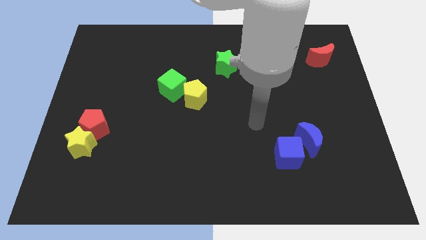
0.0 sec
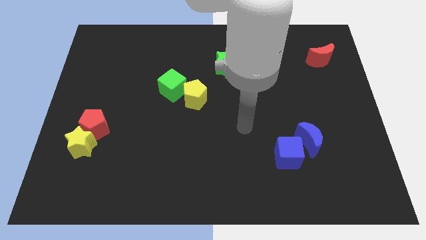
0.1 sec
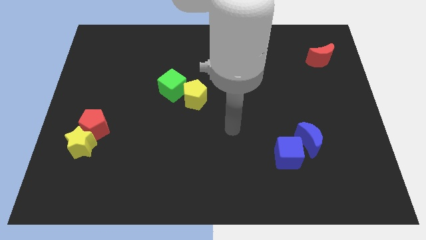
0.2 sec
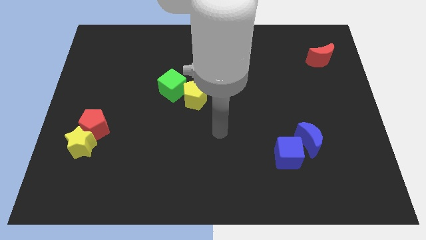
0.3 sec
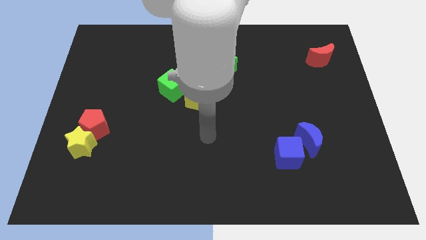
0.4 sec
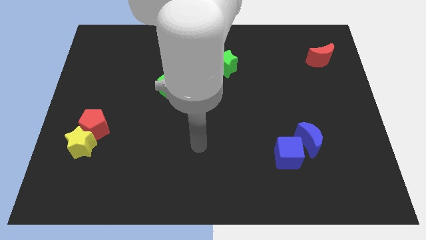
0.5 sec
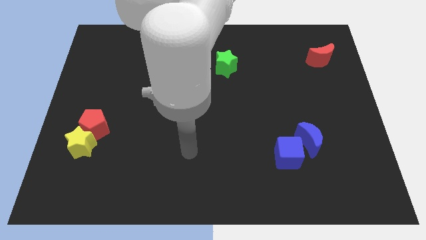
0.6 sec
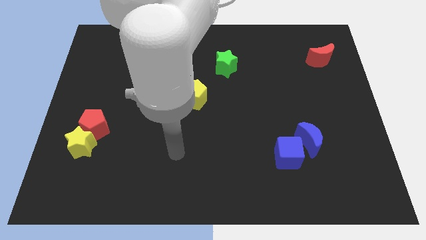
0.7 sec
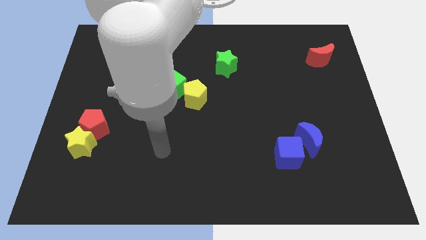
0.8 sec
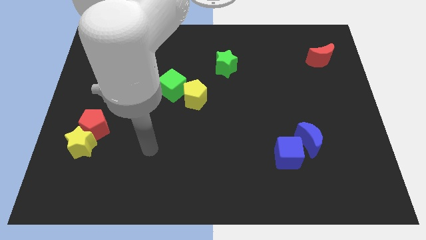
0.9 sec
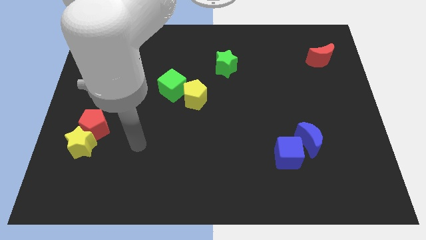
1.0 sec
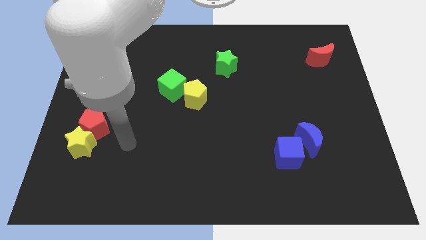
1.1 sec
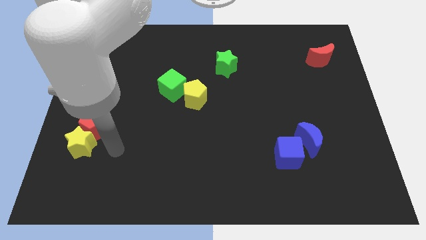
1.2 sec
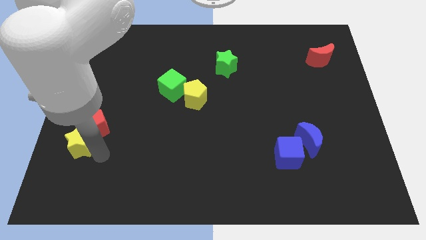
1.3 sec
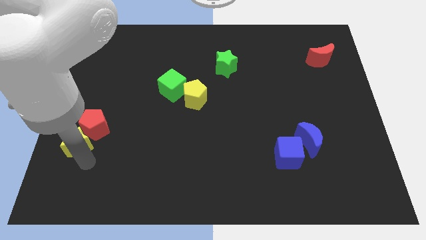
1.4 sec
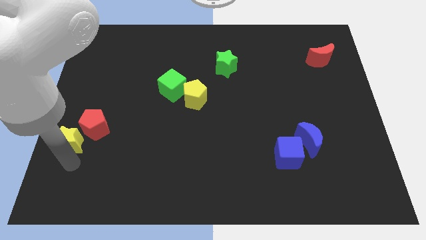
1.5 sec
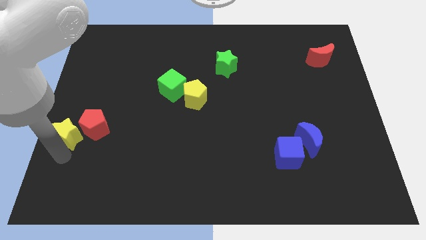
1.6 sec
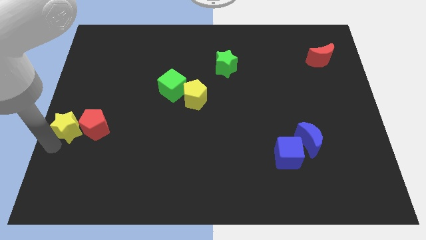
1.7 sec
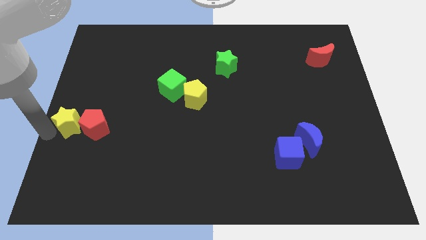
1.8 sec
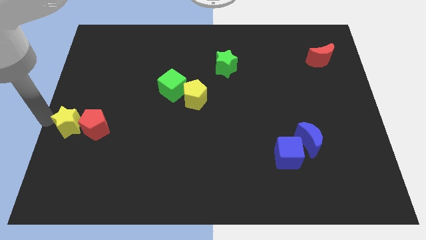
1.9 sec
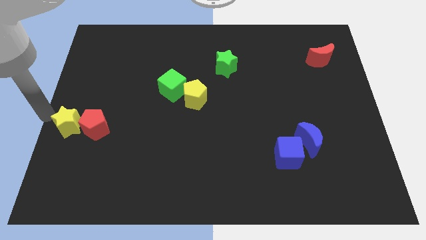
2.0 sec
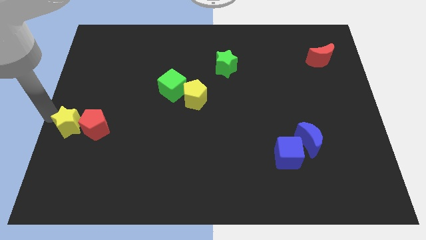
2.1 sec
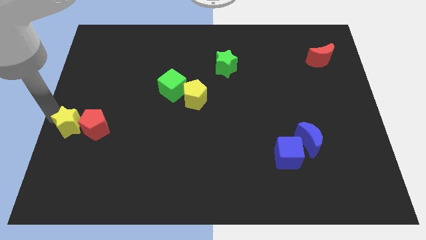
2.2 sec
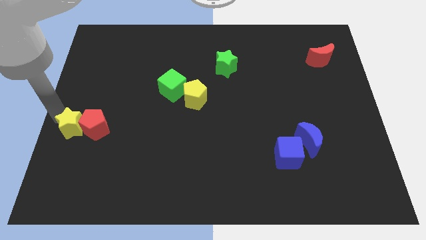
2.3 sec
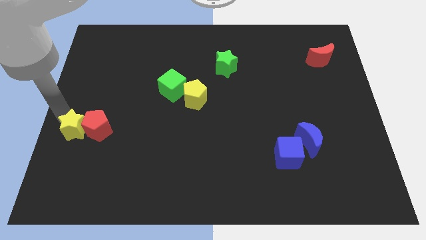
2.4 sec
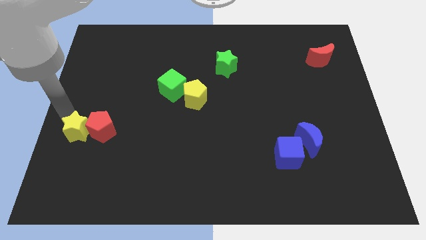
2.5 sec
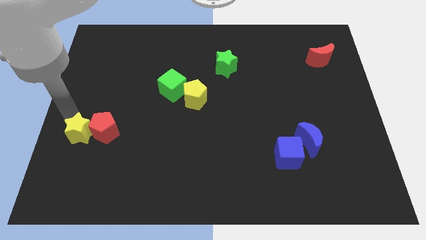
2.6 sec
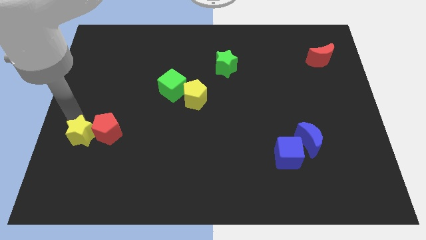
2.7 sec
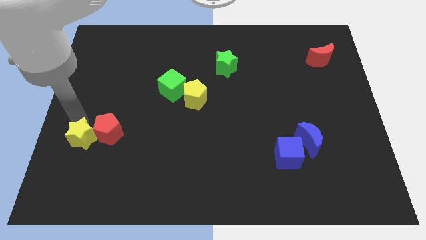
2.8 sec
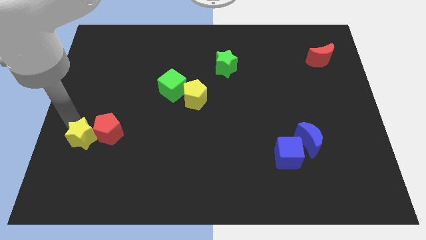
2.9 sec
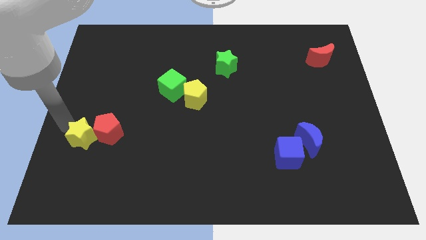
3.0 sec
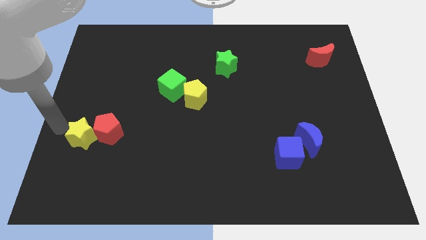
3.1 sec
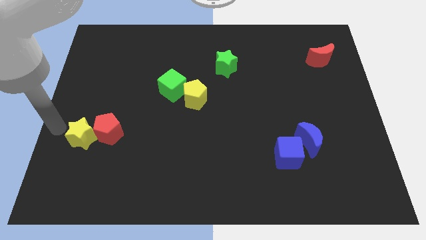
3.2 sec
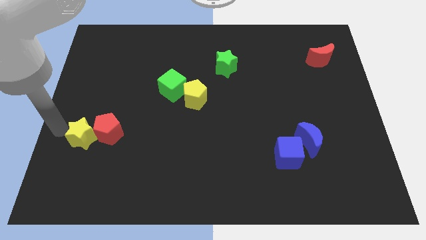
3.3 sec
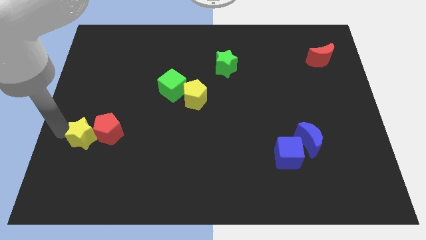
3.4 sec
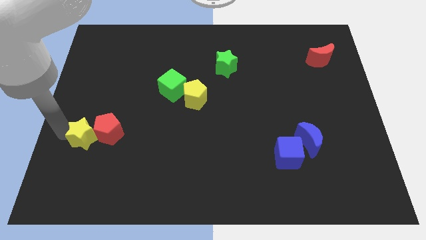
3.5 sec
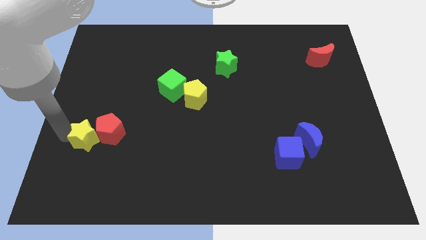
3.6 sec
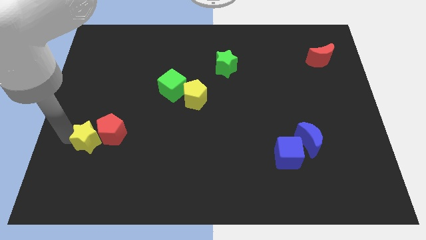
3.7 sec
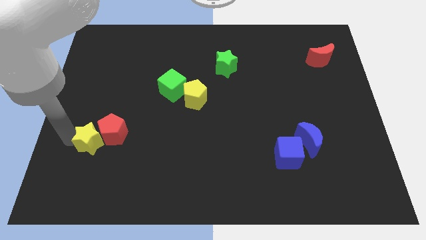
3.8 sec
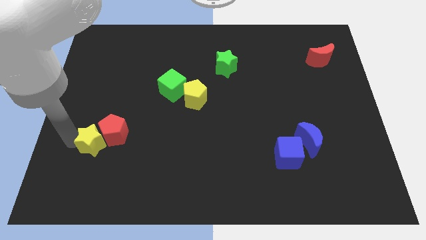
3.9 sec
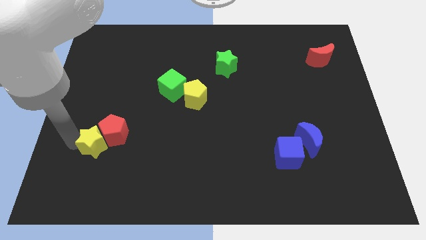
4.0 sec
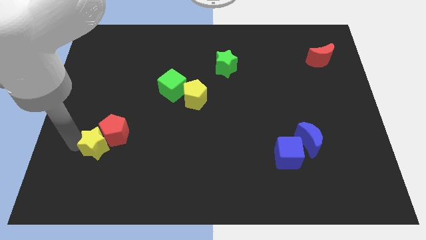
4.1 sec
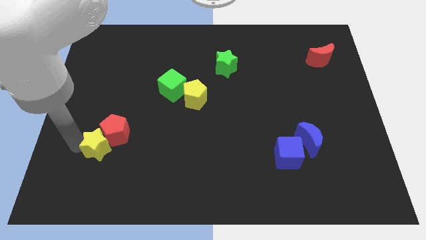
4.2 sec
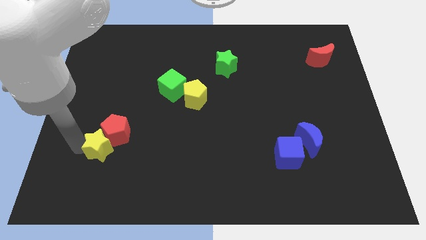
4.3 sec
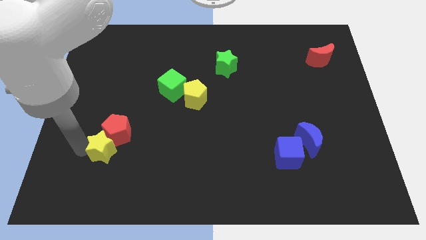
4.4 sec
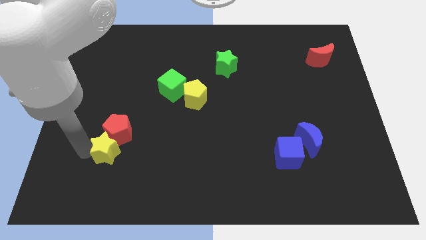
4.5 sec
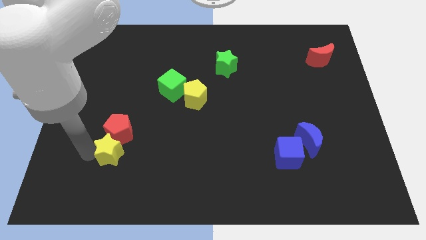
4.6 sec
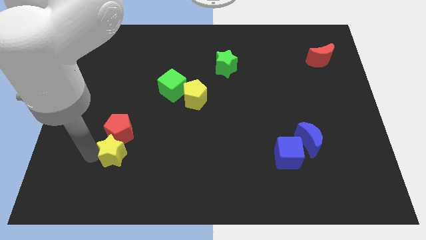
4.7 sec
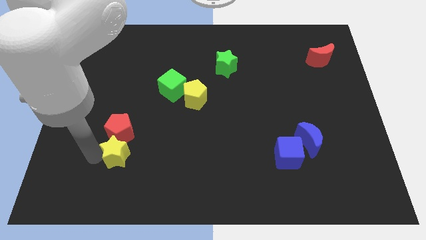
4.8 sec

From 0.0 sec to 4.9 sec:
slide the yellow star to the right slightly

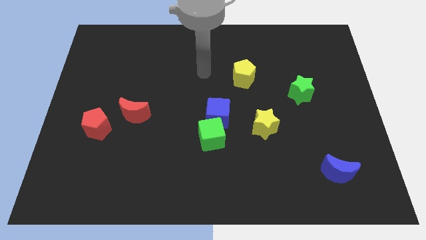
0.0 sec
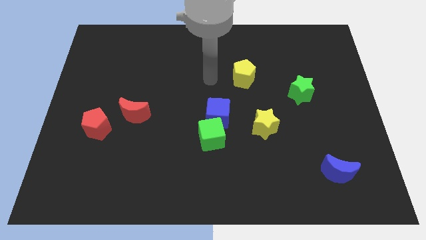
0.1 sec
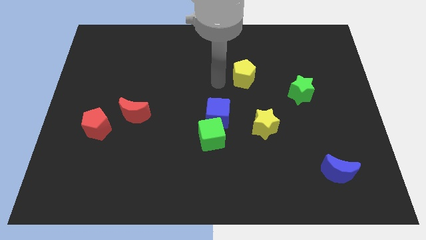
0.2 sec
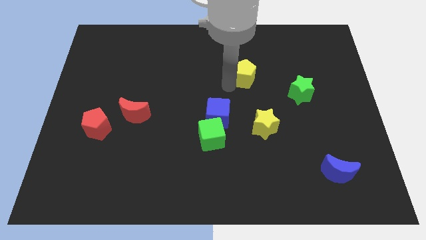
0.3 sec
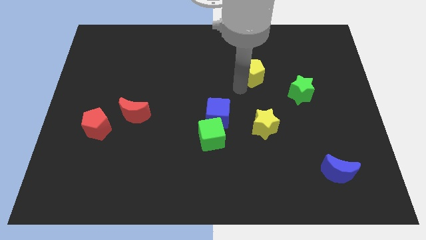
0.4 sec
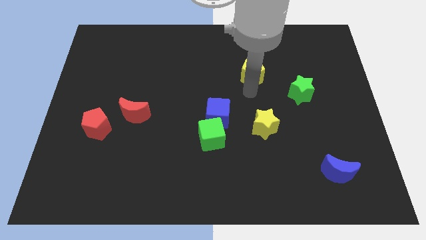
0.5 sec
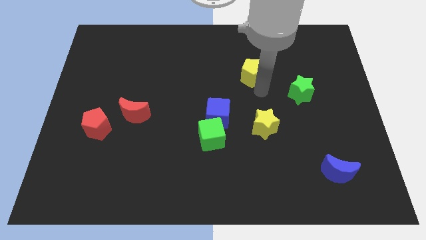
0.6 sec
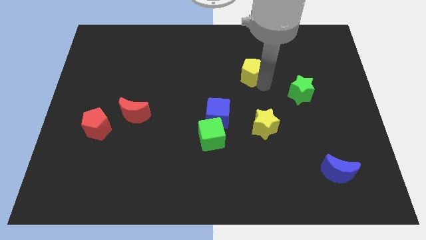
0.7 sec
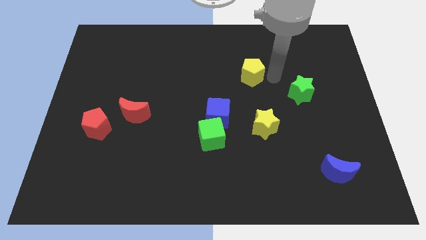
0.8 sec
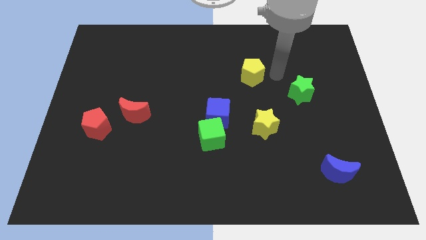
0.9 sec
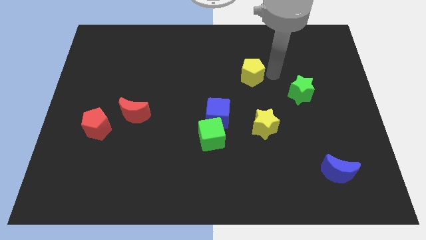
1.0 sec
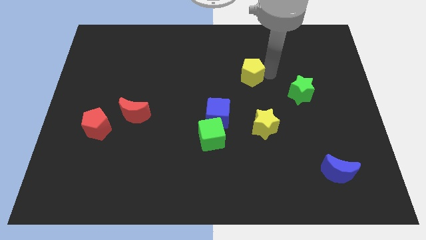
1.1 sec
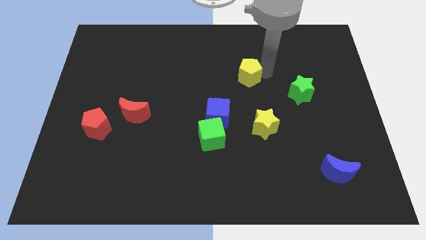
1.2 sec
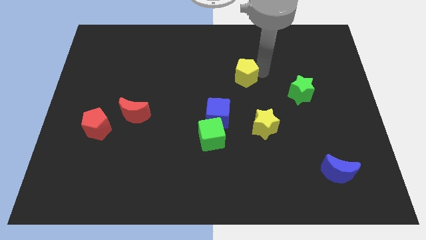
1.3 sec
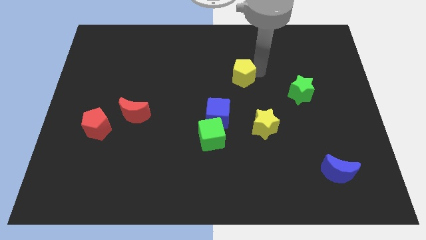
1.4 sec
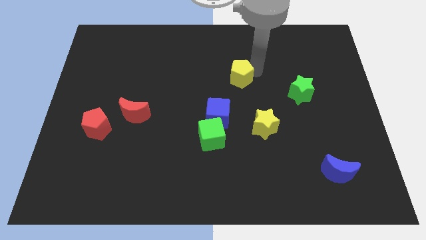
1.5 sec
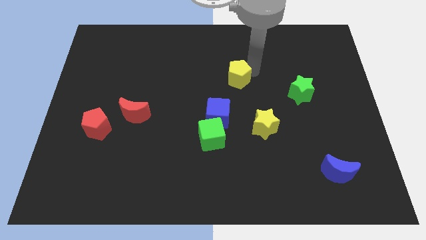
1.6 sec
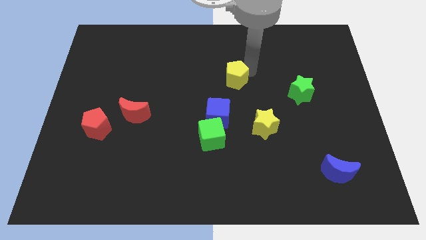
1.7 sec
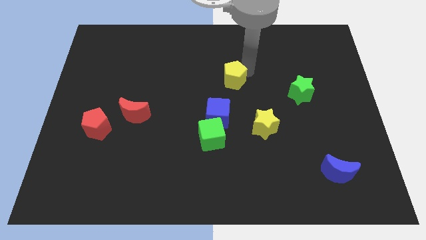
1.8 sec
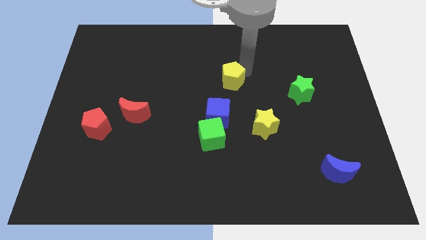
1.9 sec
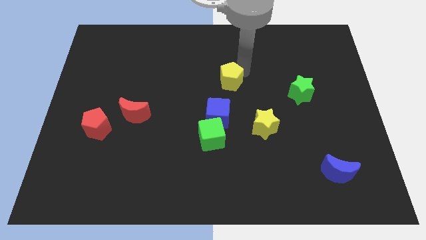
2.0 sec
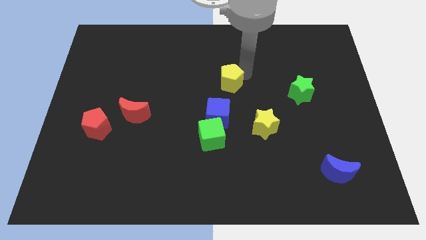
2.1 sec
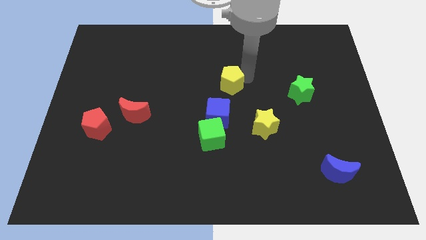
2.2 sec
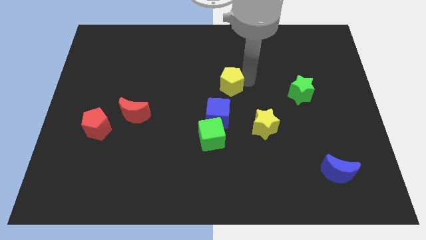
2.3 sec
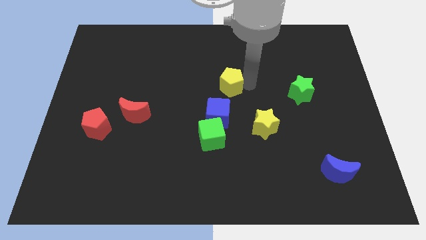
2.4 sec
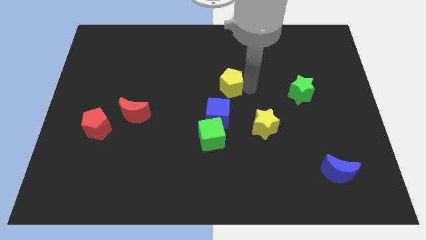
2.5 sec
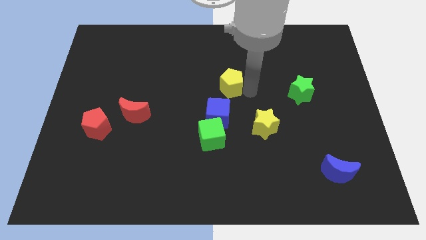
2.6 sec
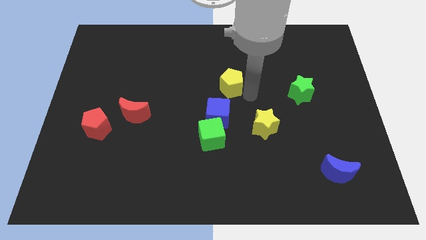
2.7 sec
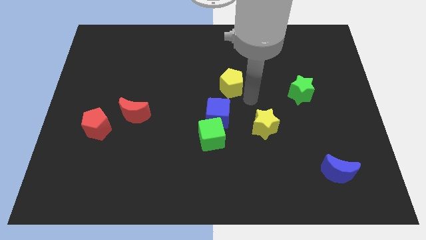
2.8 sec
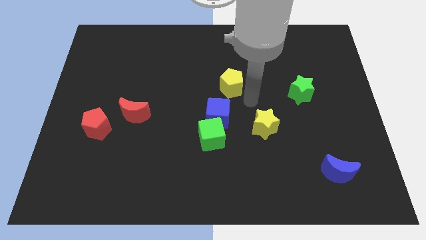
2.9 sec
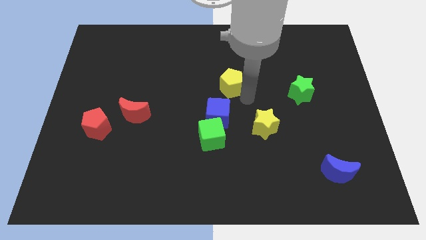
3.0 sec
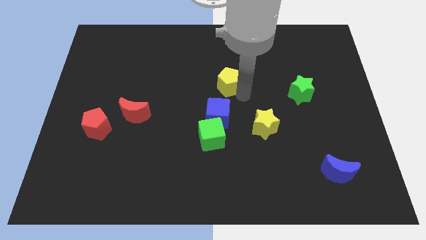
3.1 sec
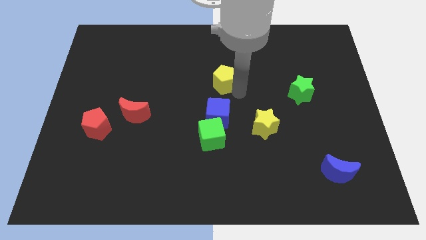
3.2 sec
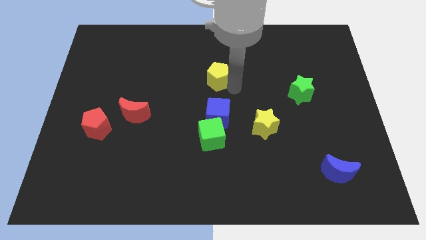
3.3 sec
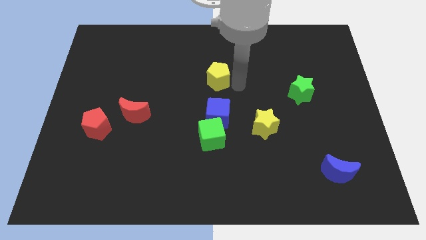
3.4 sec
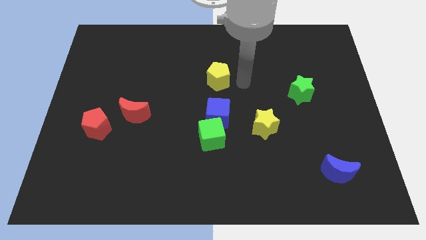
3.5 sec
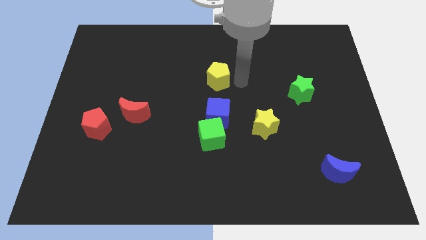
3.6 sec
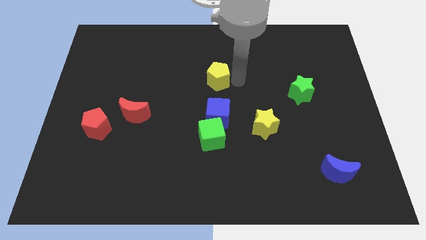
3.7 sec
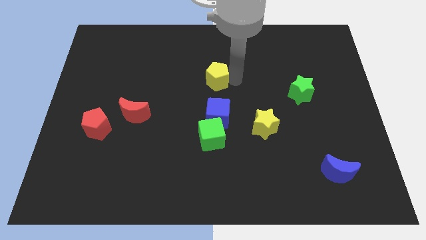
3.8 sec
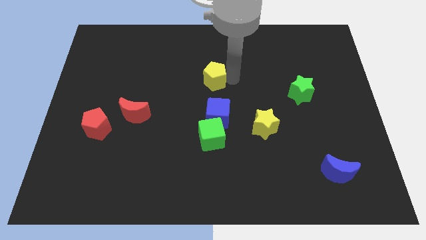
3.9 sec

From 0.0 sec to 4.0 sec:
slightly move the yellow pentagon to the left
